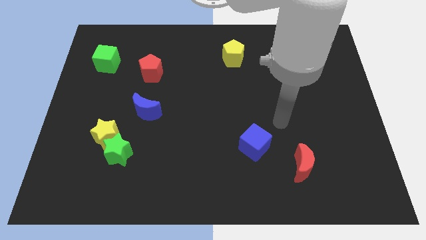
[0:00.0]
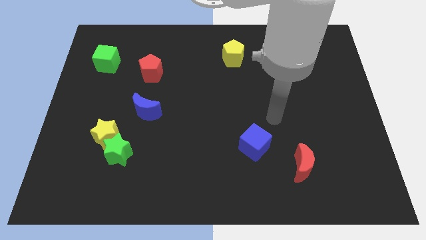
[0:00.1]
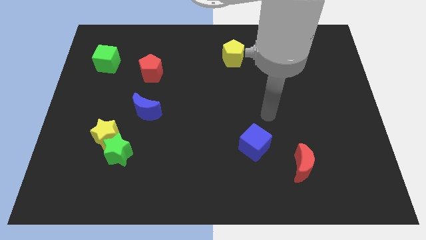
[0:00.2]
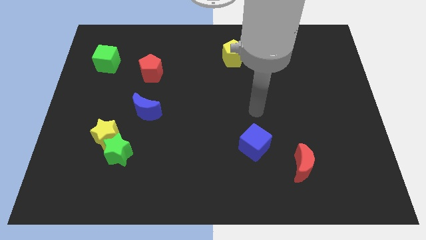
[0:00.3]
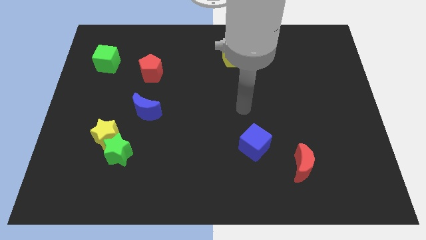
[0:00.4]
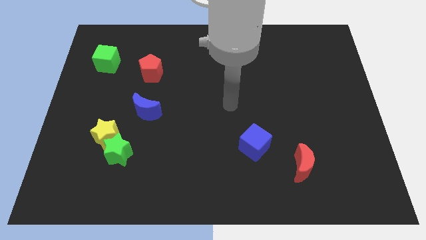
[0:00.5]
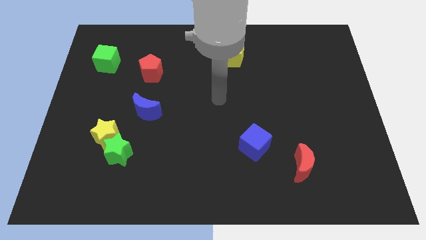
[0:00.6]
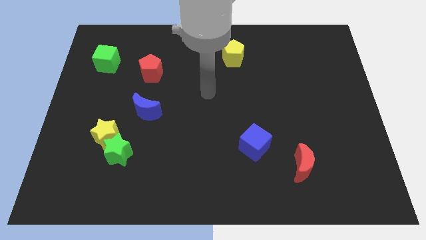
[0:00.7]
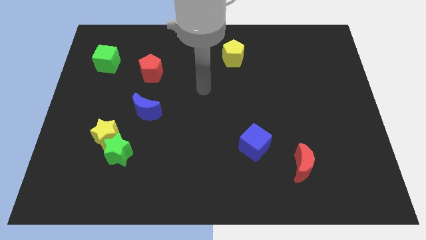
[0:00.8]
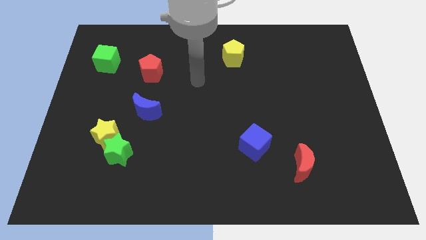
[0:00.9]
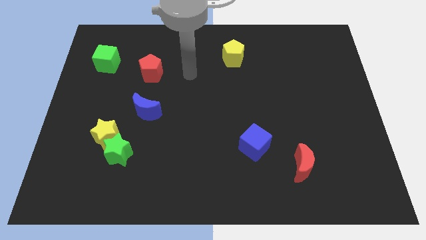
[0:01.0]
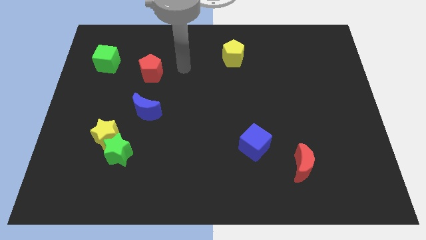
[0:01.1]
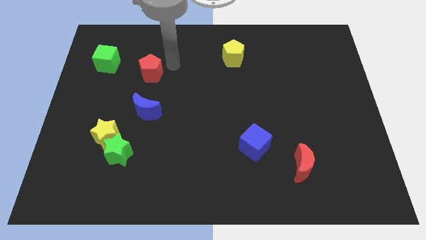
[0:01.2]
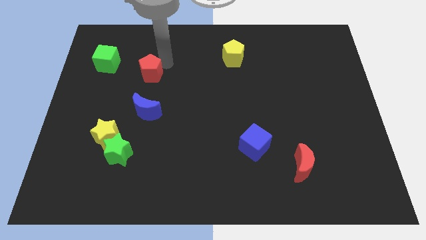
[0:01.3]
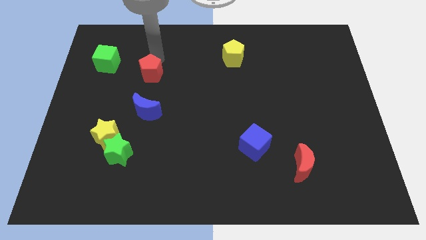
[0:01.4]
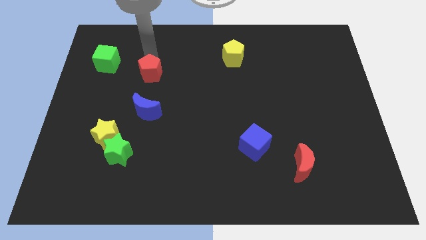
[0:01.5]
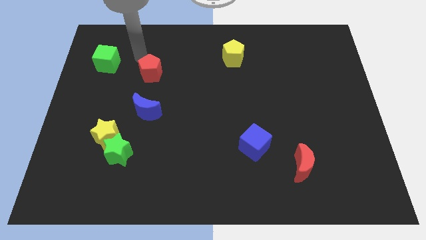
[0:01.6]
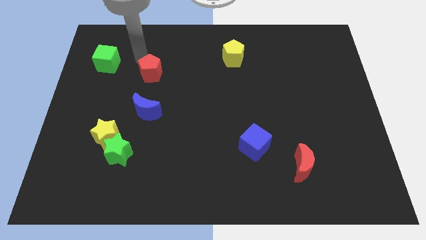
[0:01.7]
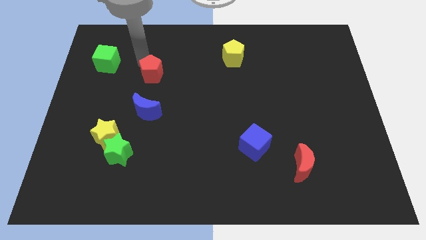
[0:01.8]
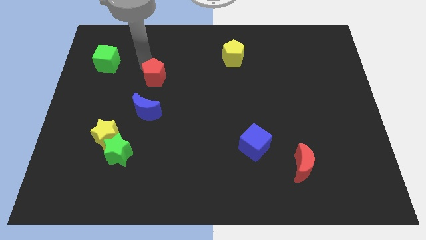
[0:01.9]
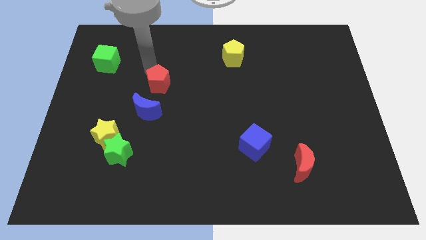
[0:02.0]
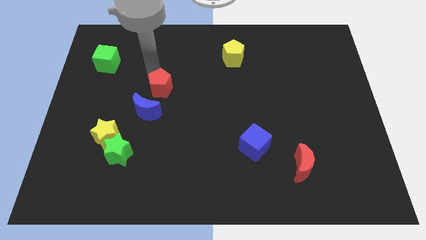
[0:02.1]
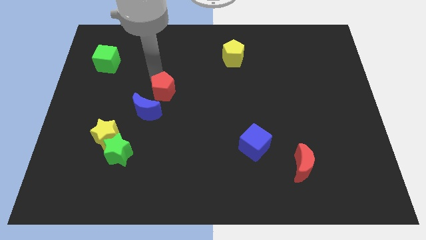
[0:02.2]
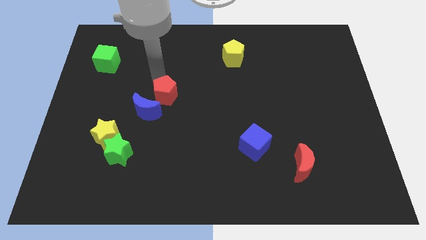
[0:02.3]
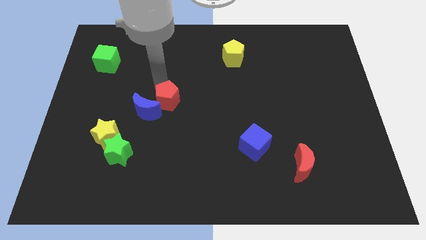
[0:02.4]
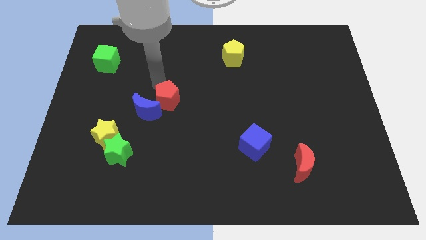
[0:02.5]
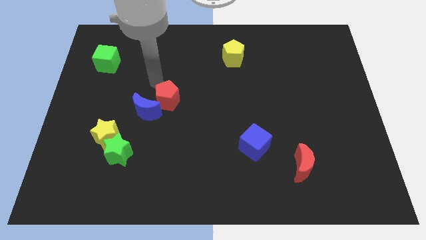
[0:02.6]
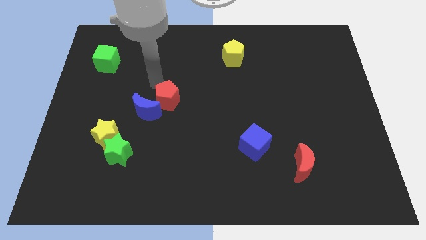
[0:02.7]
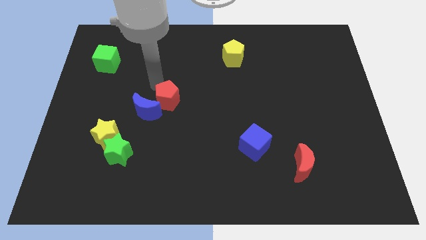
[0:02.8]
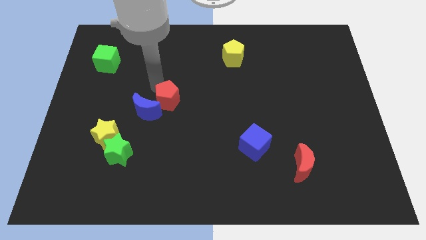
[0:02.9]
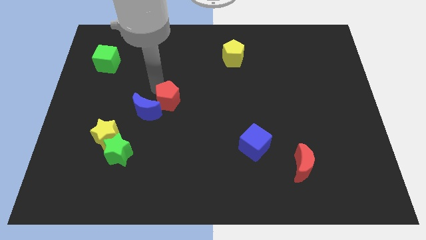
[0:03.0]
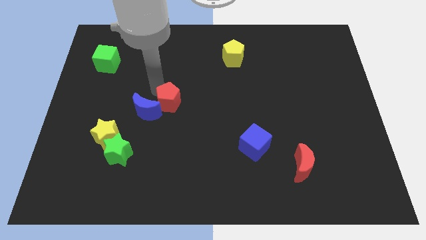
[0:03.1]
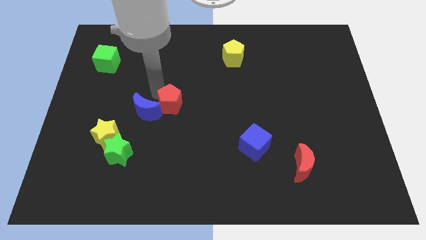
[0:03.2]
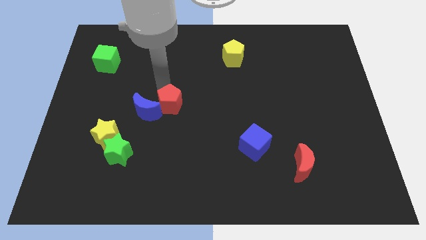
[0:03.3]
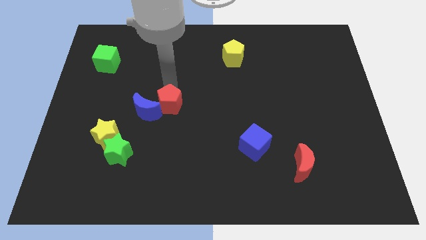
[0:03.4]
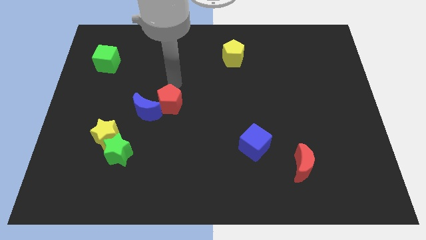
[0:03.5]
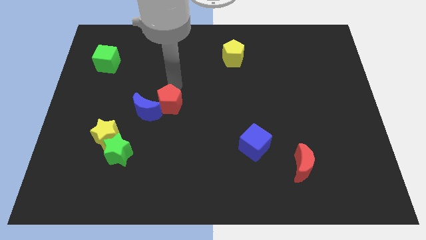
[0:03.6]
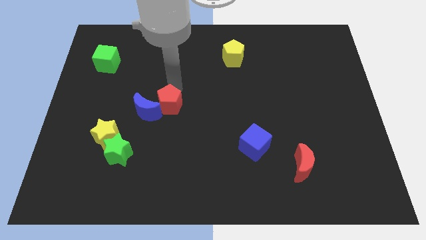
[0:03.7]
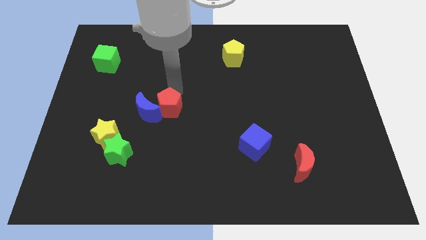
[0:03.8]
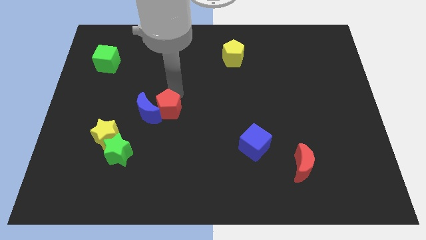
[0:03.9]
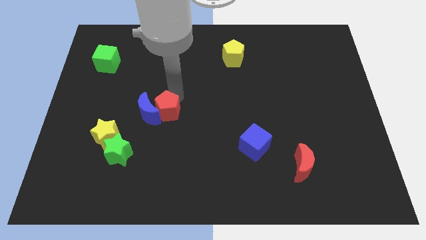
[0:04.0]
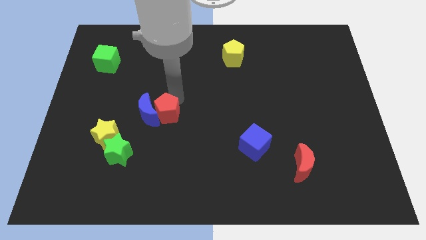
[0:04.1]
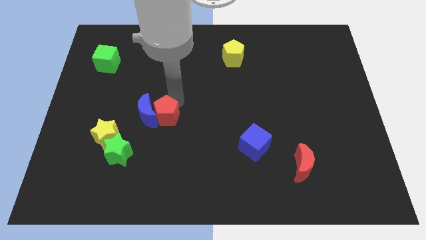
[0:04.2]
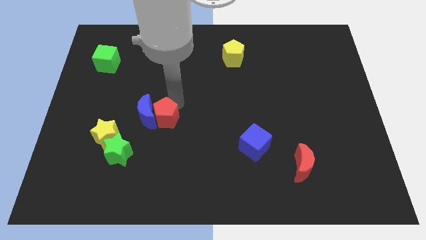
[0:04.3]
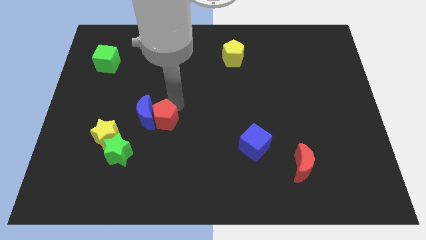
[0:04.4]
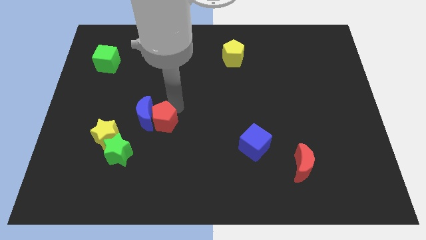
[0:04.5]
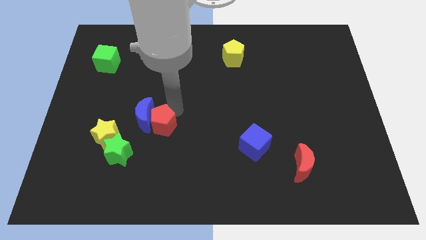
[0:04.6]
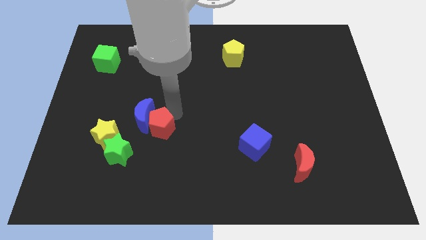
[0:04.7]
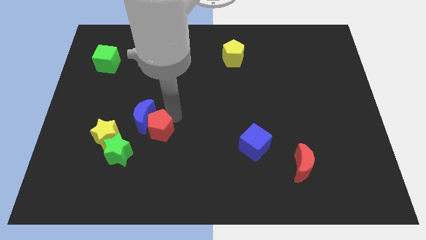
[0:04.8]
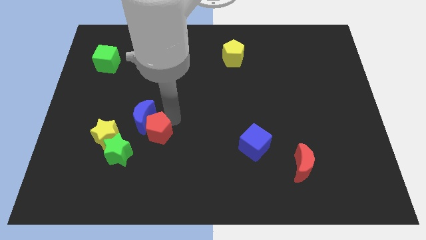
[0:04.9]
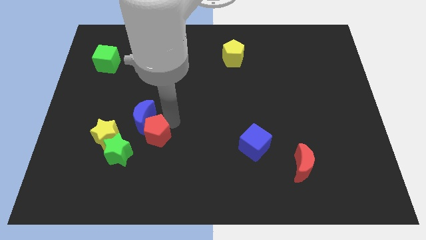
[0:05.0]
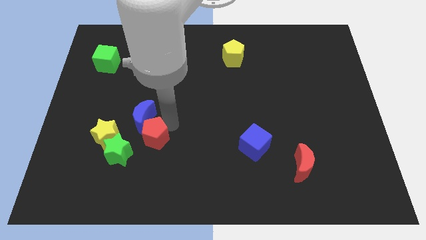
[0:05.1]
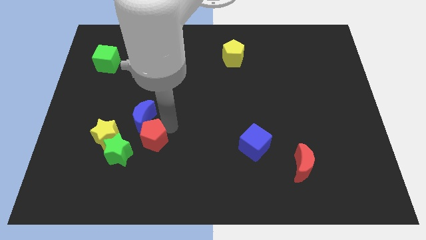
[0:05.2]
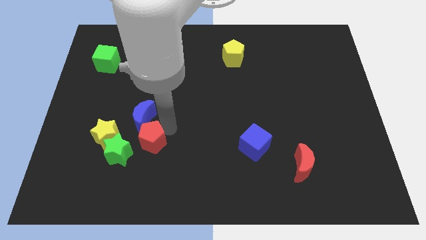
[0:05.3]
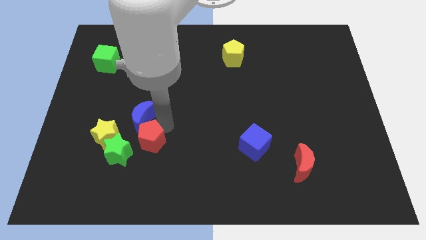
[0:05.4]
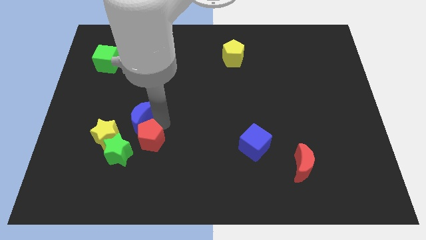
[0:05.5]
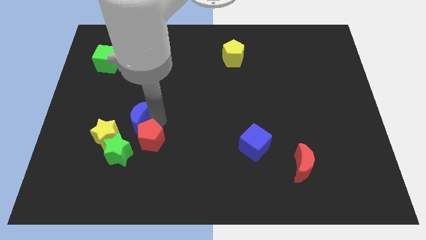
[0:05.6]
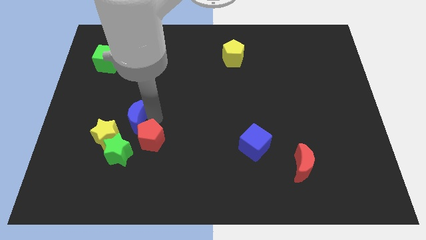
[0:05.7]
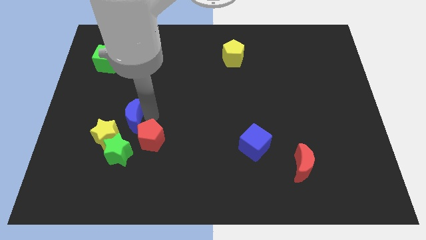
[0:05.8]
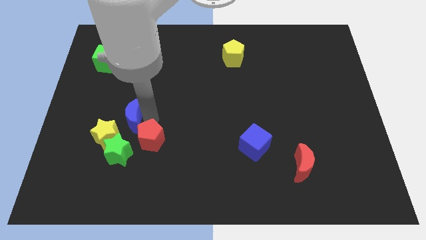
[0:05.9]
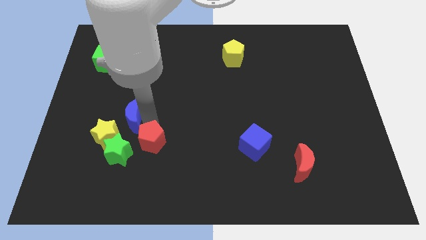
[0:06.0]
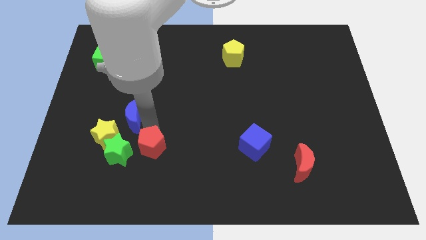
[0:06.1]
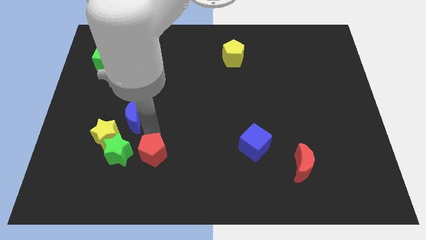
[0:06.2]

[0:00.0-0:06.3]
put the red pentagon to the bottom right side of the green star
